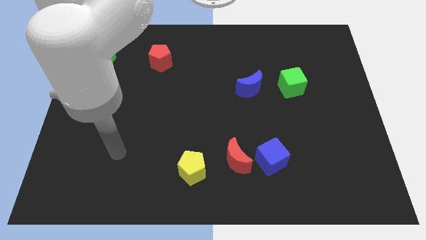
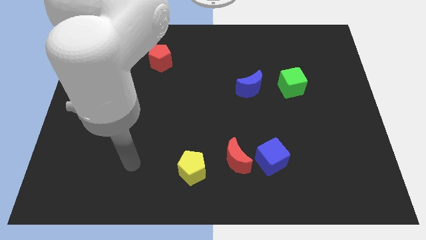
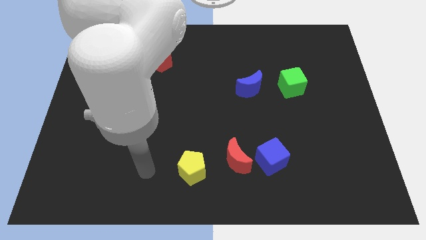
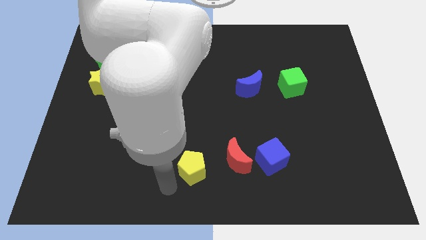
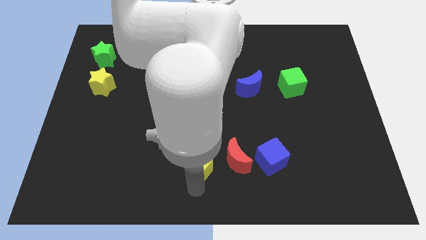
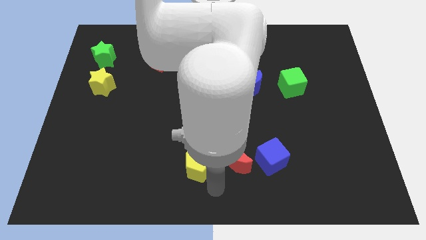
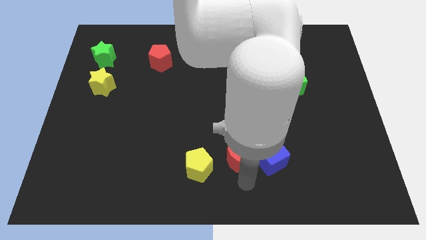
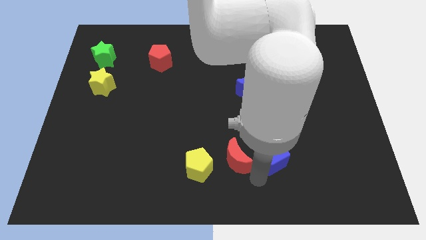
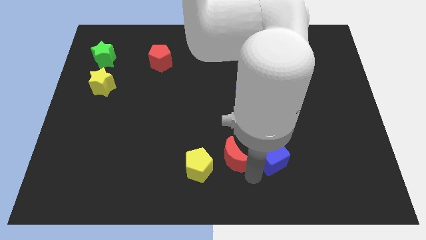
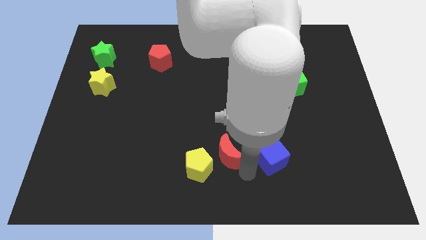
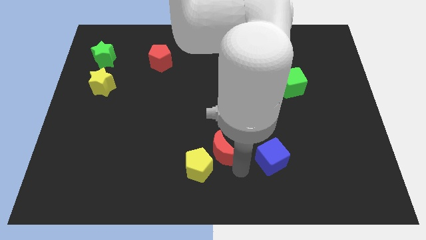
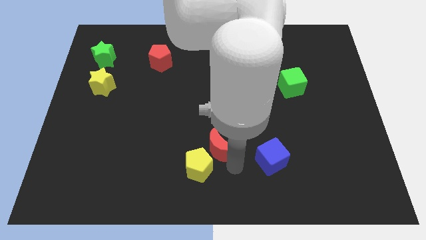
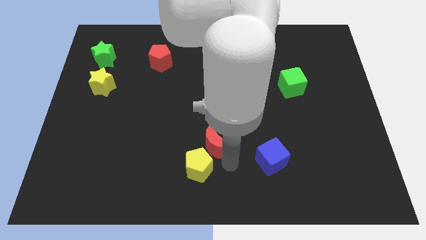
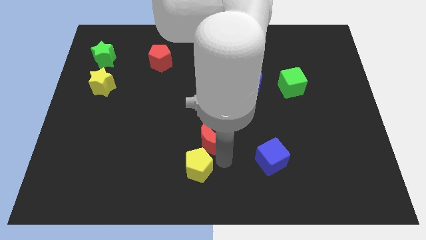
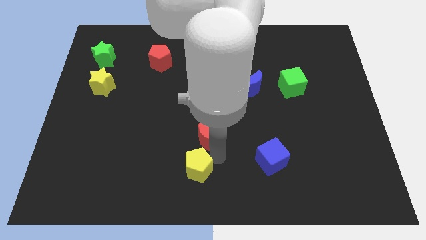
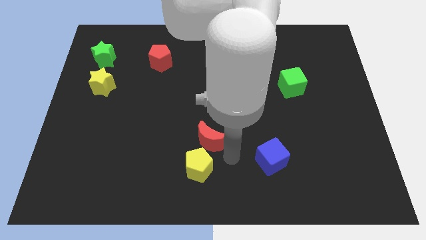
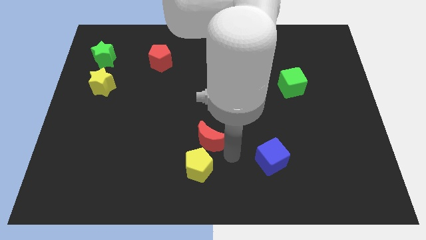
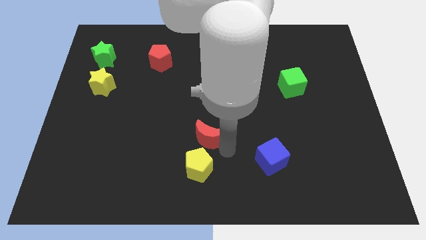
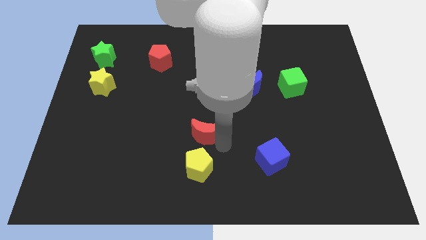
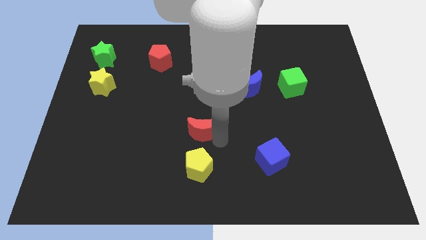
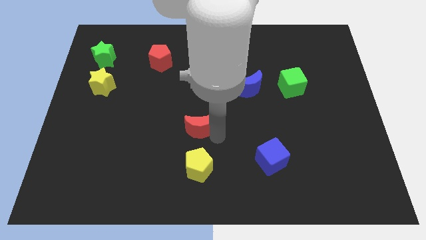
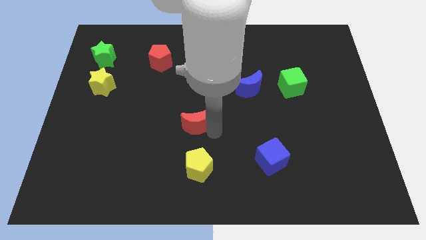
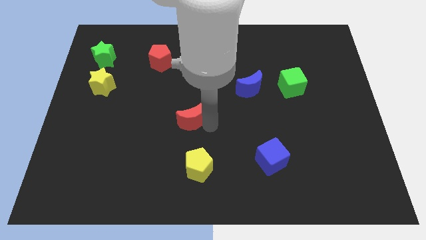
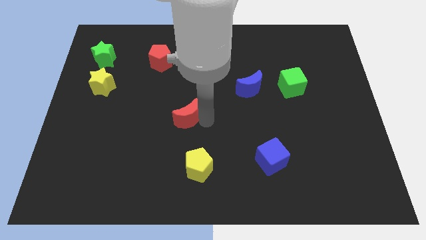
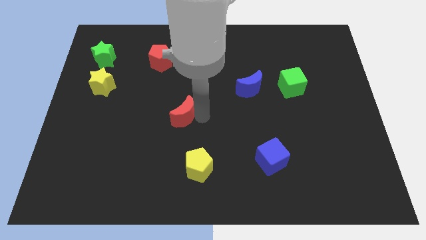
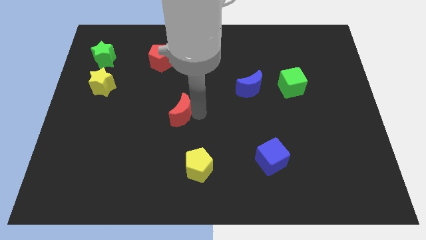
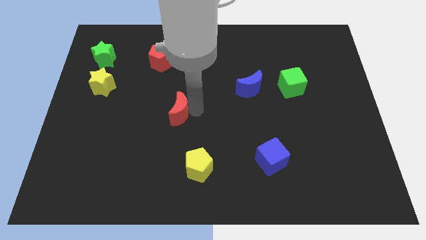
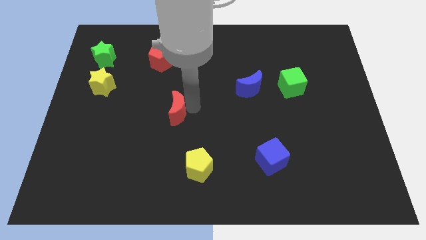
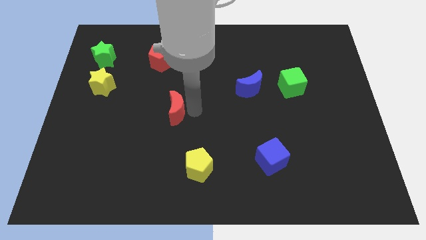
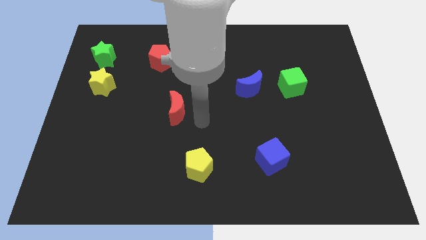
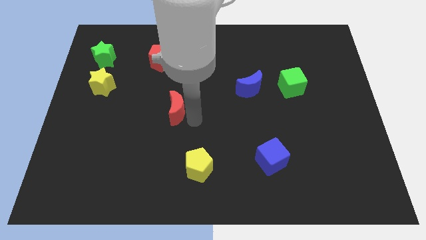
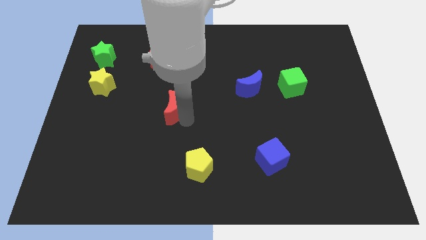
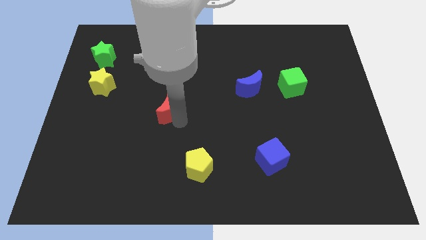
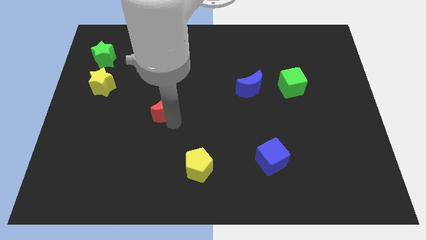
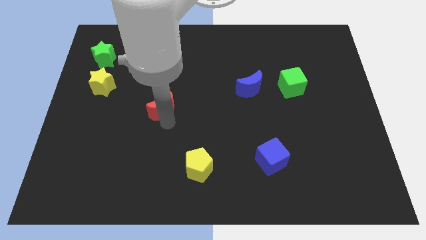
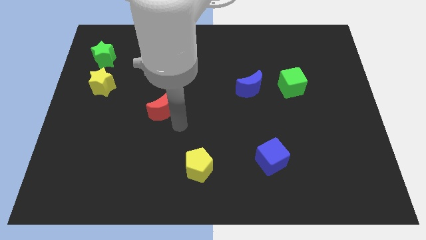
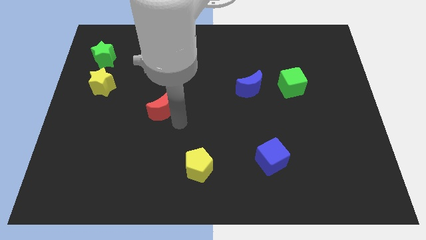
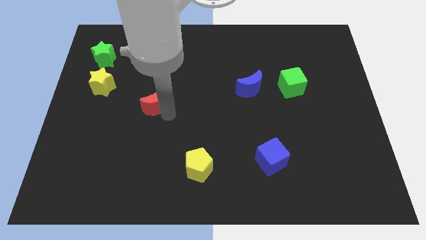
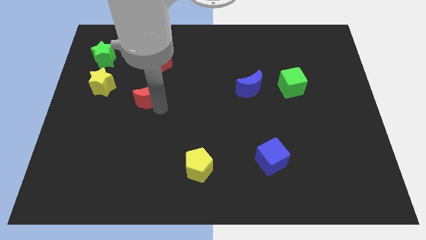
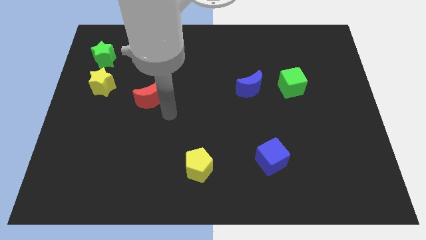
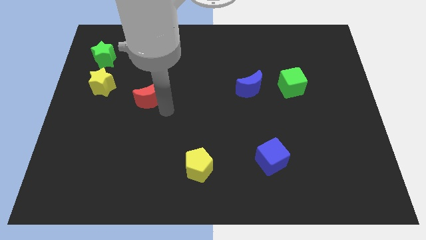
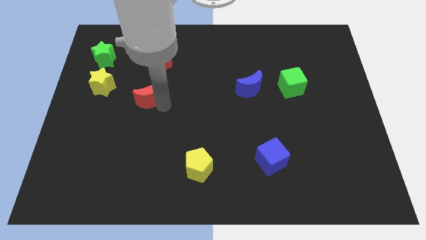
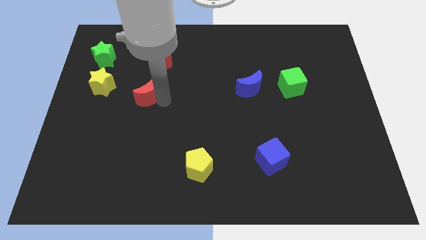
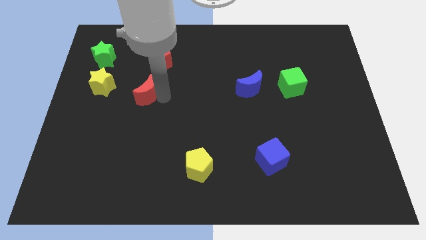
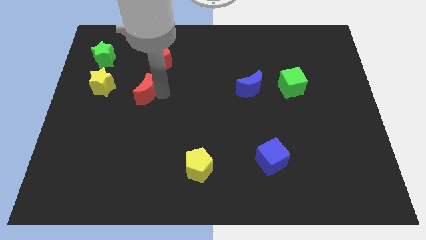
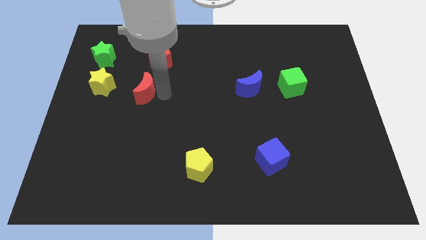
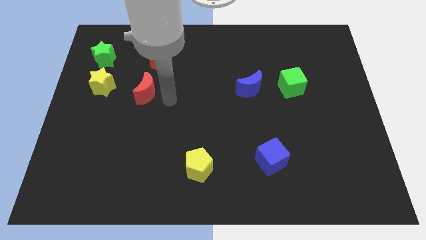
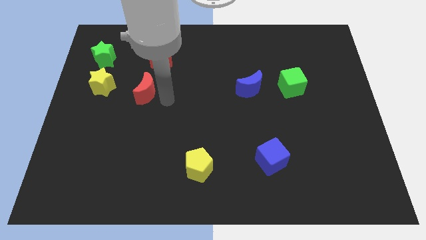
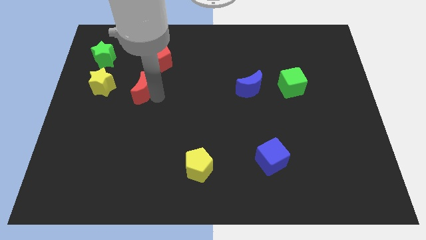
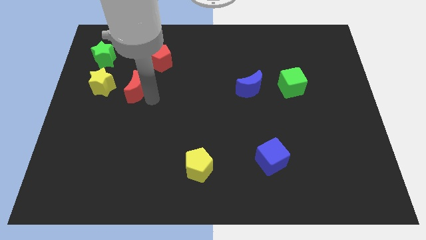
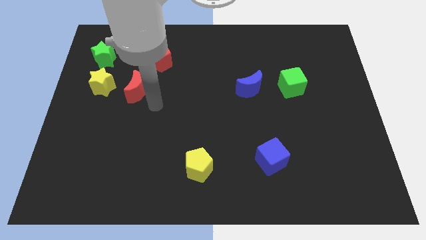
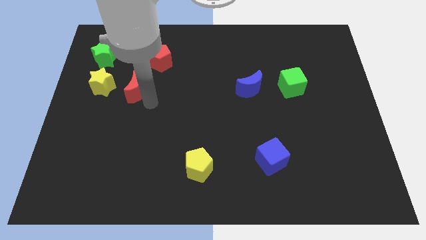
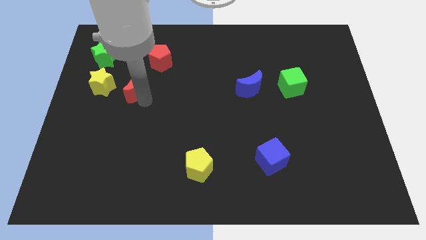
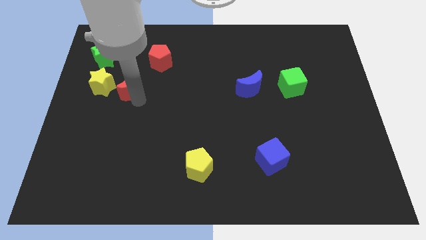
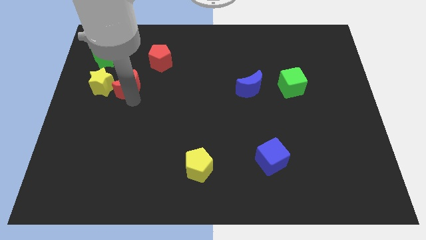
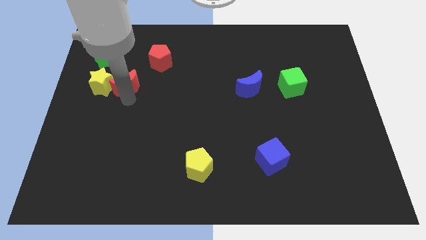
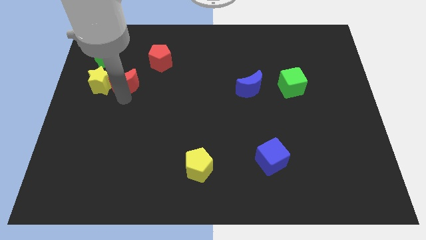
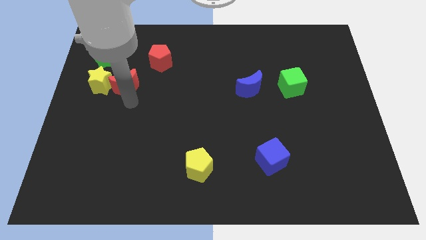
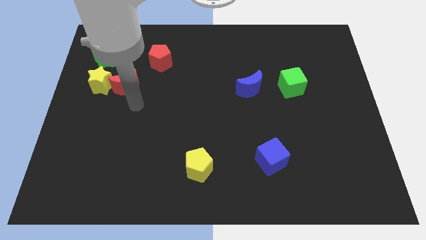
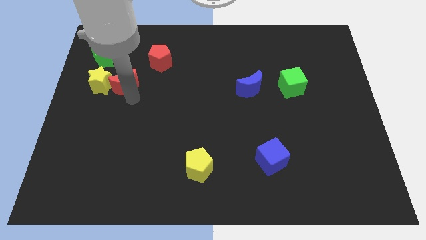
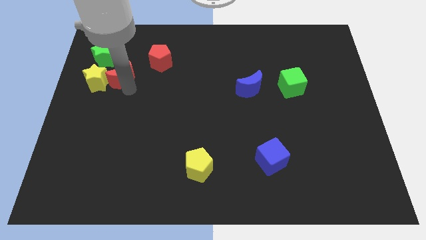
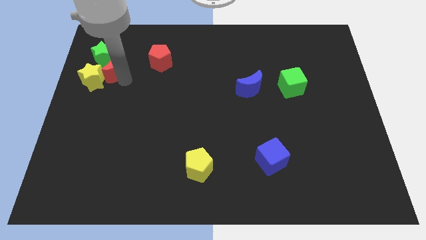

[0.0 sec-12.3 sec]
put the red moon close to the green star
